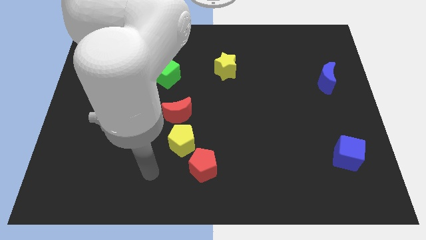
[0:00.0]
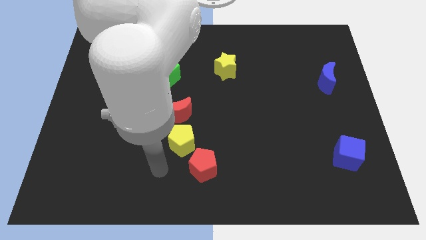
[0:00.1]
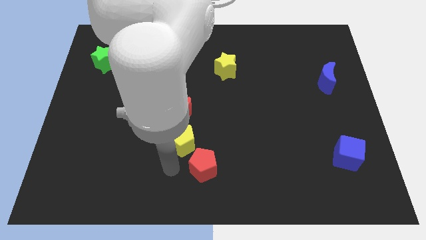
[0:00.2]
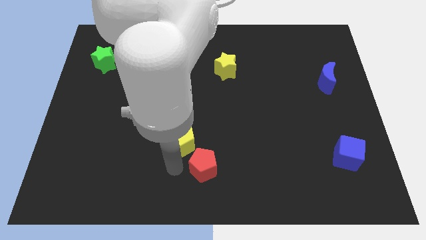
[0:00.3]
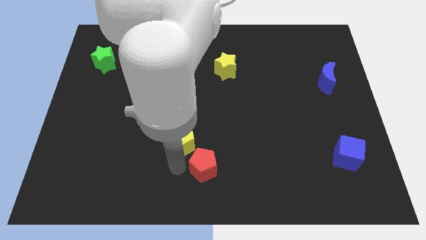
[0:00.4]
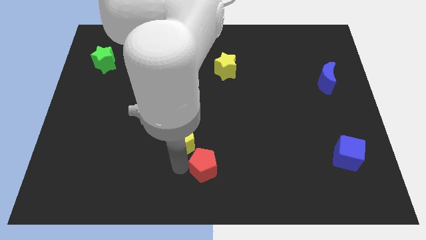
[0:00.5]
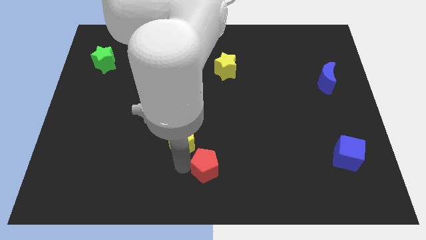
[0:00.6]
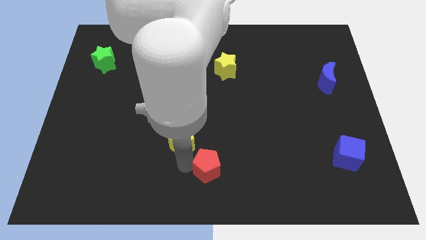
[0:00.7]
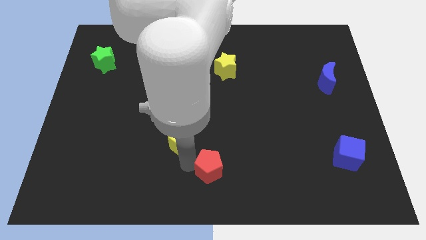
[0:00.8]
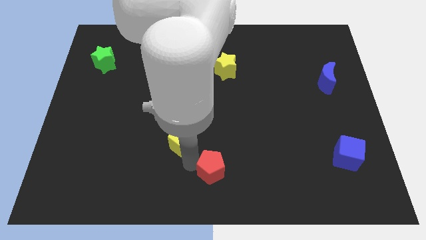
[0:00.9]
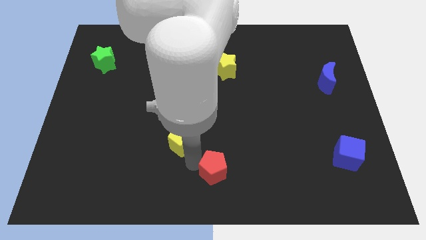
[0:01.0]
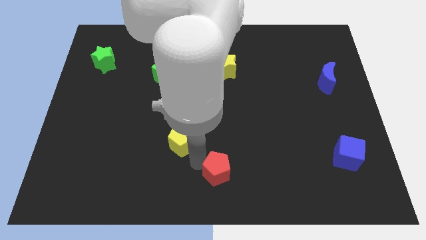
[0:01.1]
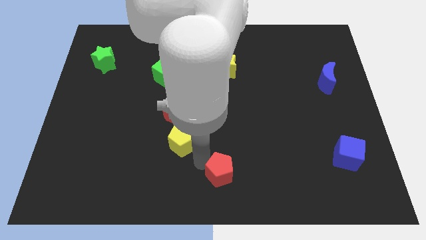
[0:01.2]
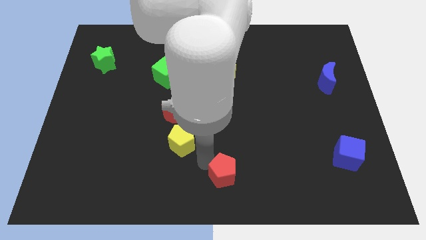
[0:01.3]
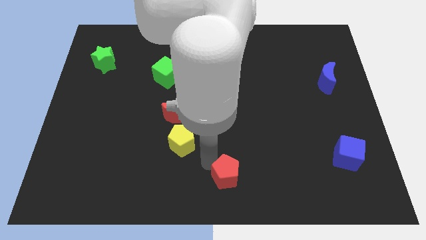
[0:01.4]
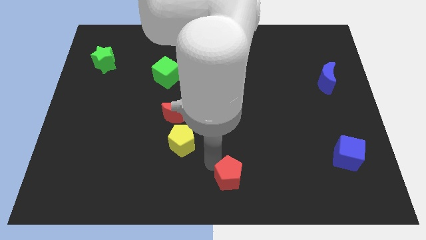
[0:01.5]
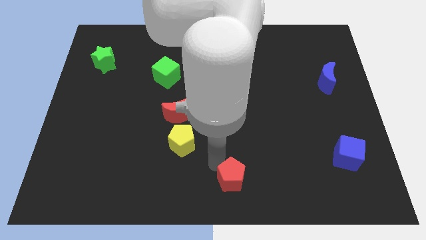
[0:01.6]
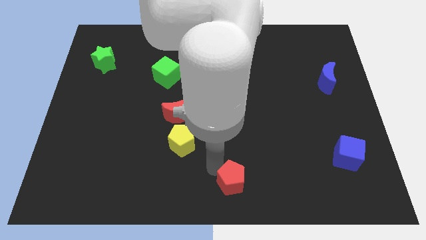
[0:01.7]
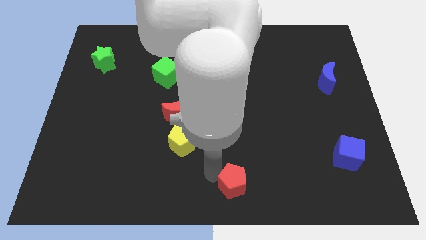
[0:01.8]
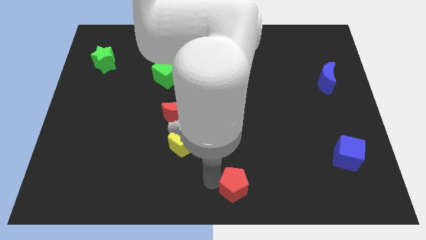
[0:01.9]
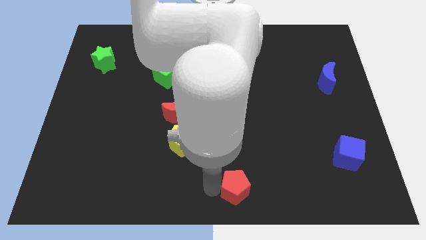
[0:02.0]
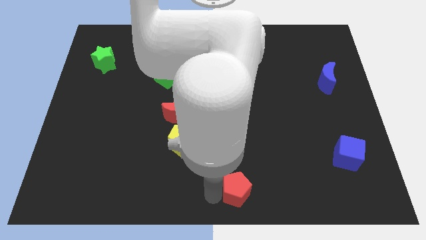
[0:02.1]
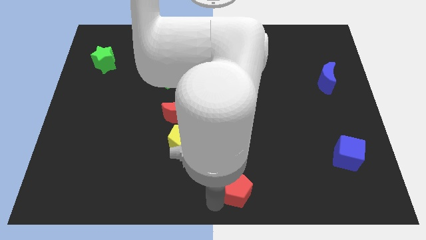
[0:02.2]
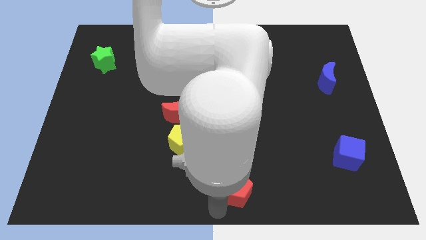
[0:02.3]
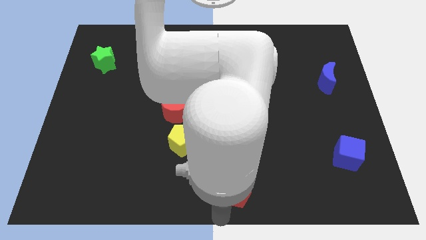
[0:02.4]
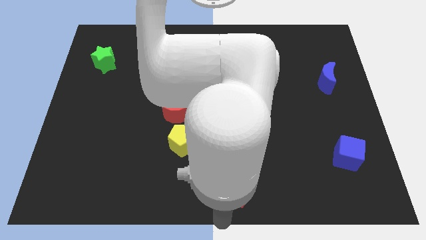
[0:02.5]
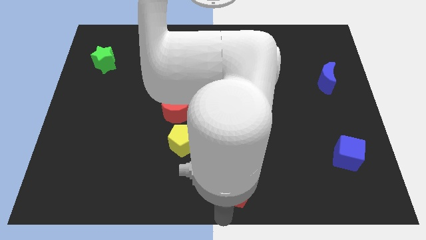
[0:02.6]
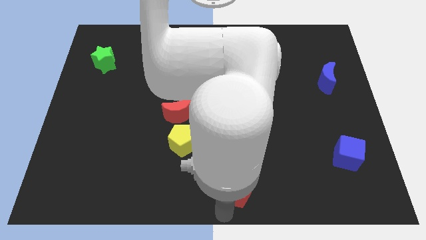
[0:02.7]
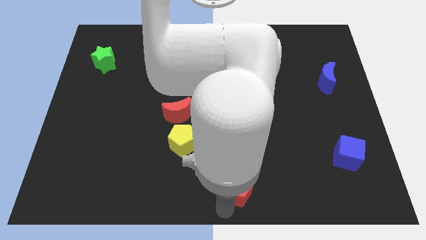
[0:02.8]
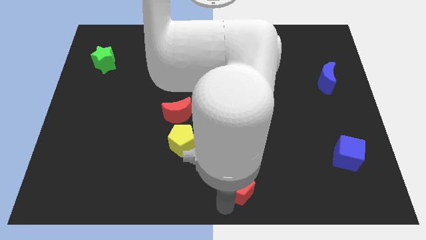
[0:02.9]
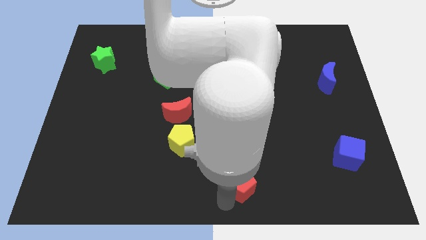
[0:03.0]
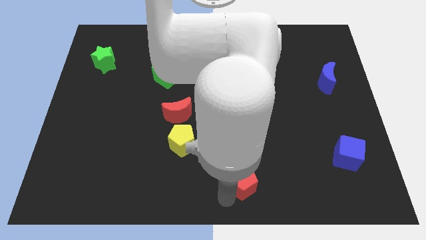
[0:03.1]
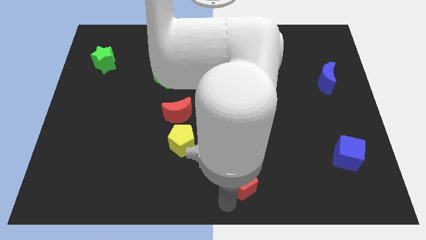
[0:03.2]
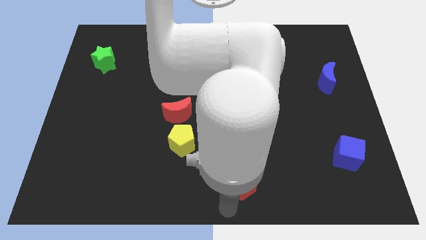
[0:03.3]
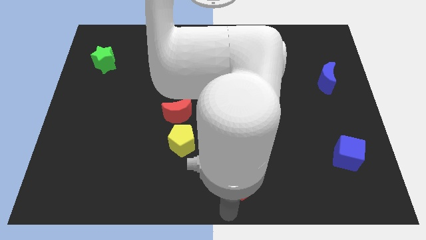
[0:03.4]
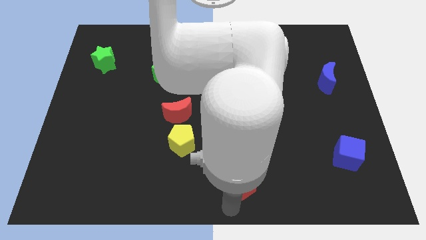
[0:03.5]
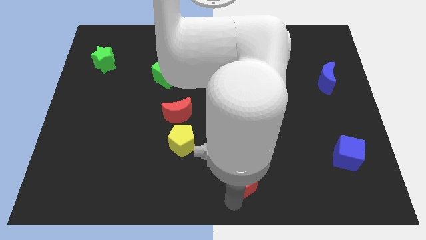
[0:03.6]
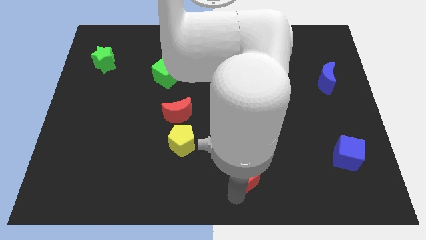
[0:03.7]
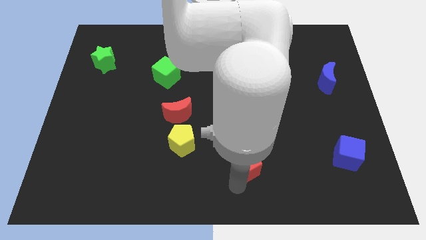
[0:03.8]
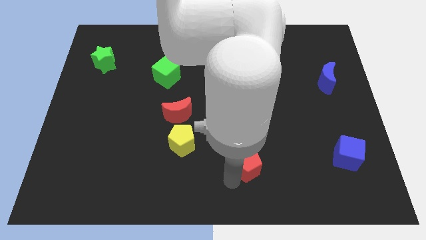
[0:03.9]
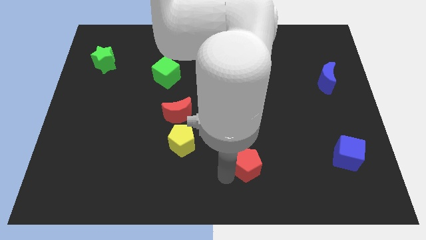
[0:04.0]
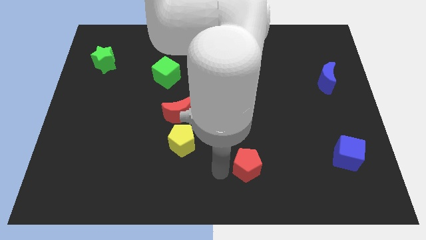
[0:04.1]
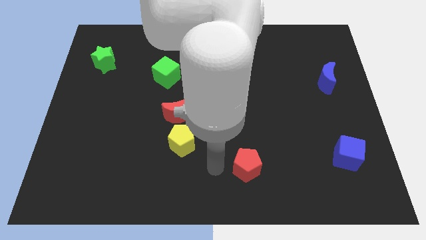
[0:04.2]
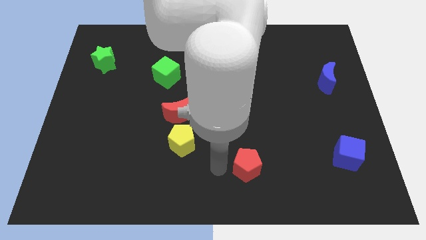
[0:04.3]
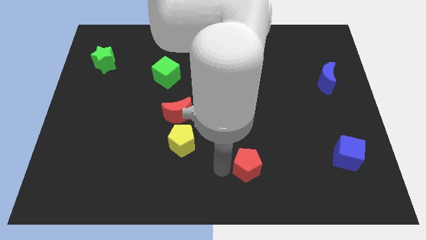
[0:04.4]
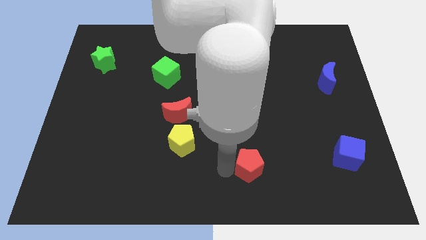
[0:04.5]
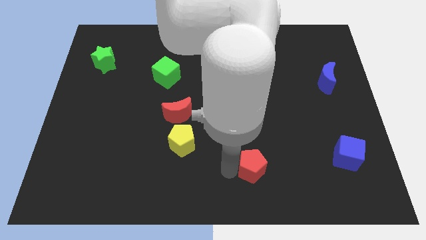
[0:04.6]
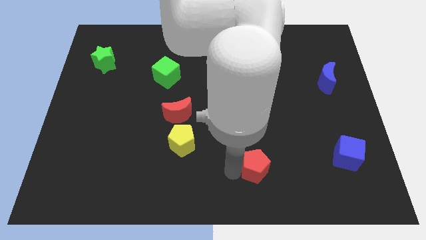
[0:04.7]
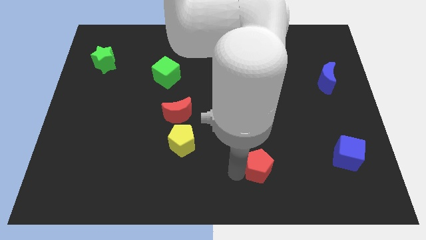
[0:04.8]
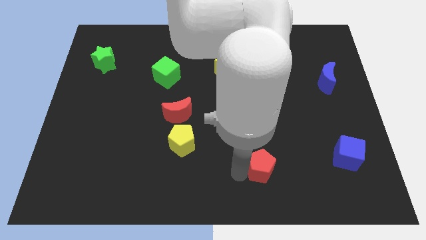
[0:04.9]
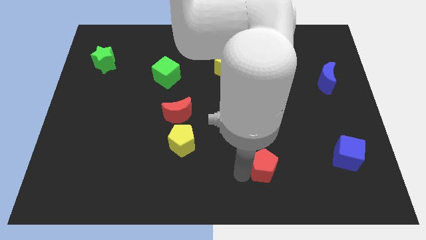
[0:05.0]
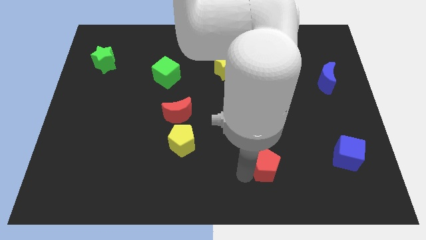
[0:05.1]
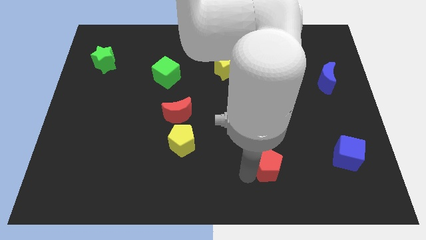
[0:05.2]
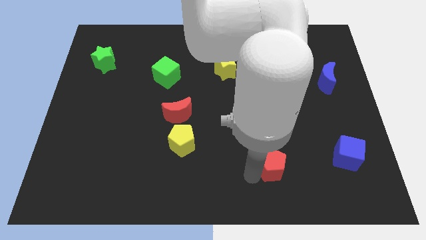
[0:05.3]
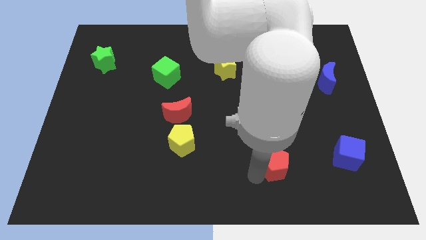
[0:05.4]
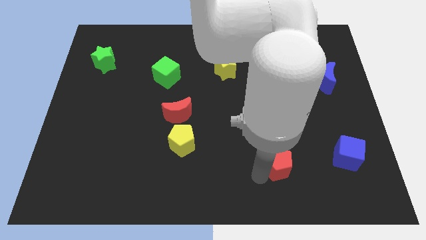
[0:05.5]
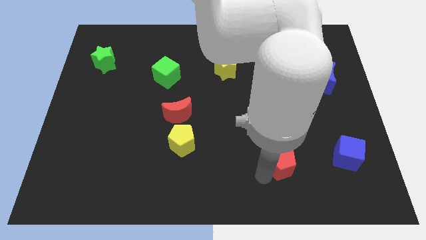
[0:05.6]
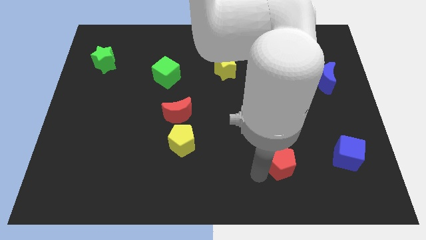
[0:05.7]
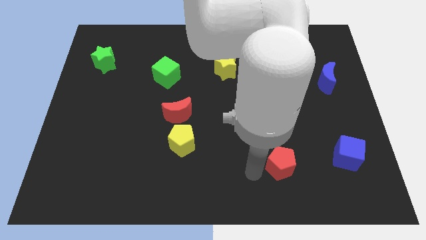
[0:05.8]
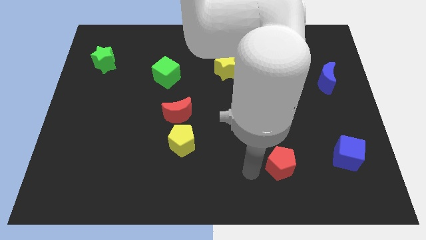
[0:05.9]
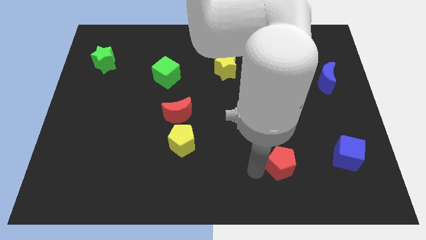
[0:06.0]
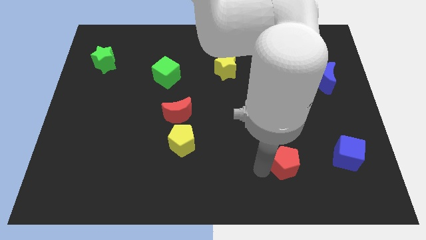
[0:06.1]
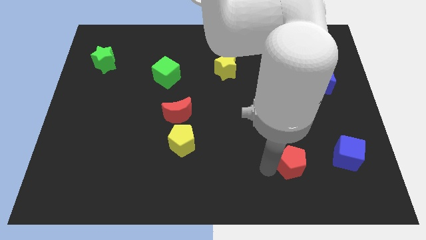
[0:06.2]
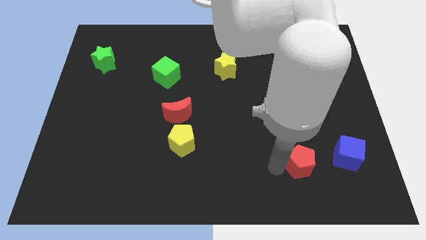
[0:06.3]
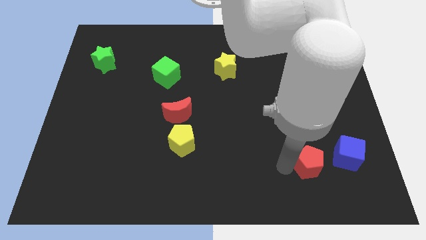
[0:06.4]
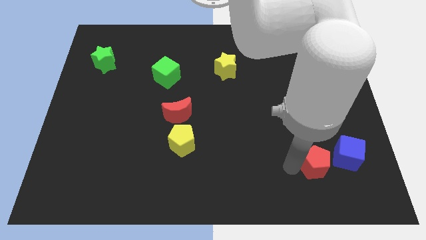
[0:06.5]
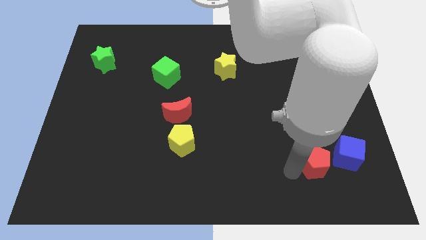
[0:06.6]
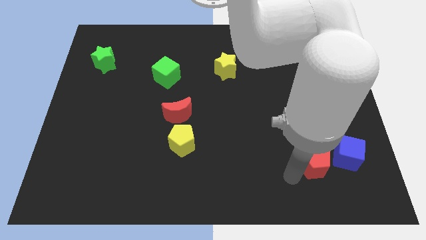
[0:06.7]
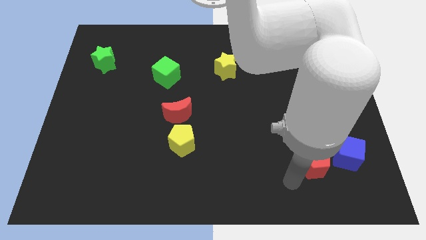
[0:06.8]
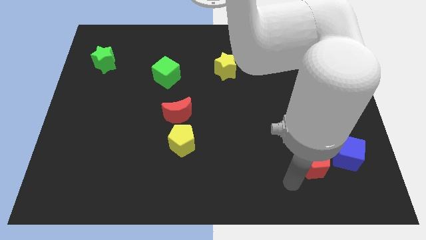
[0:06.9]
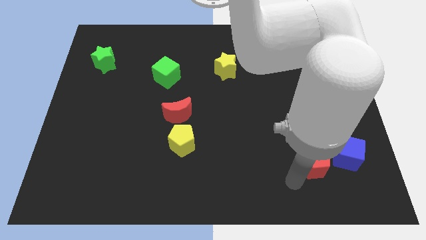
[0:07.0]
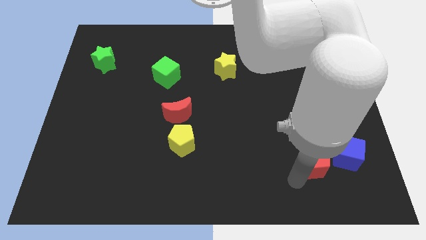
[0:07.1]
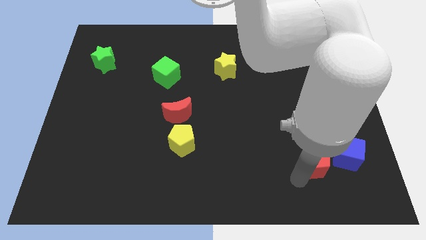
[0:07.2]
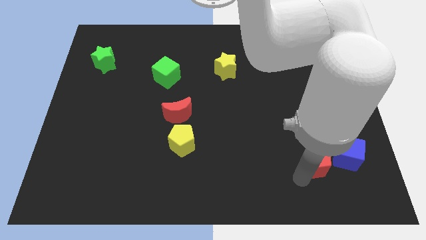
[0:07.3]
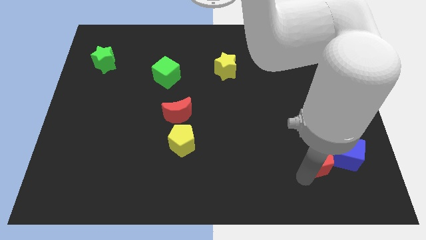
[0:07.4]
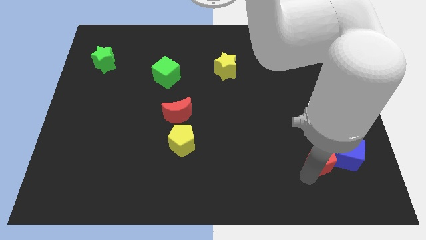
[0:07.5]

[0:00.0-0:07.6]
slide the red pentagon next to the blue cube
